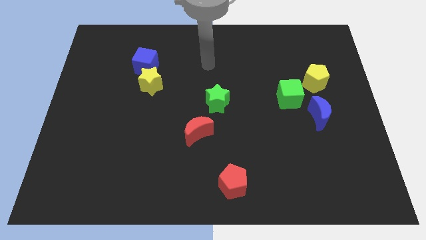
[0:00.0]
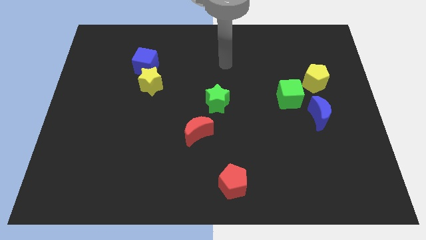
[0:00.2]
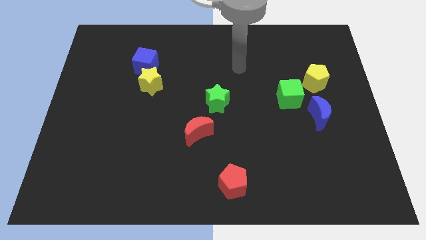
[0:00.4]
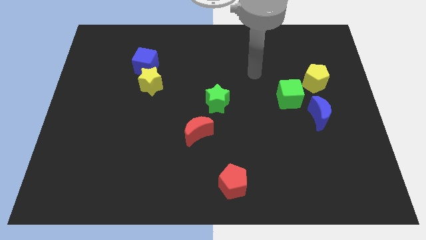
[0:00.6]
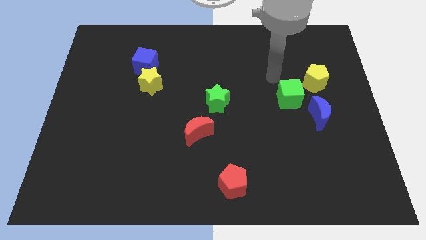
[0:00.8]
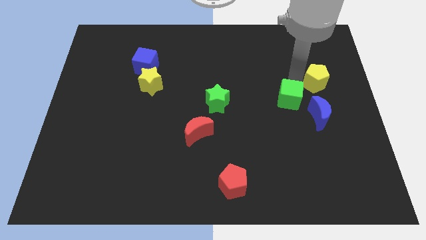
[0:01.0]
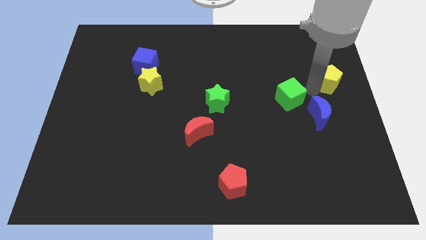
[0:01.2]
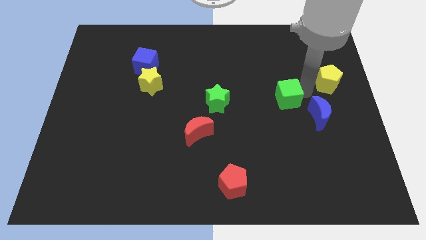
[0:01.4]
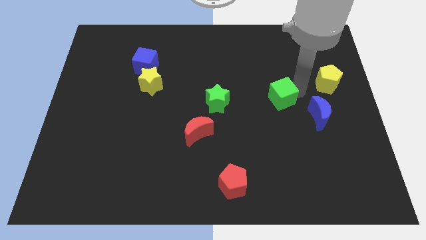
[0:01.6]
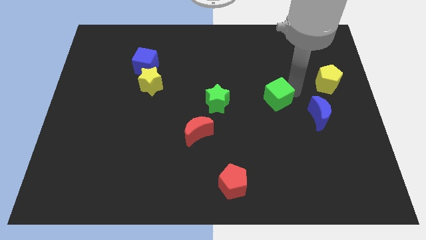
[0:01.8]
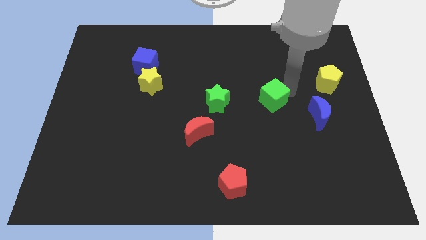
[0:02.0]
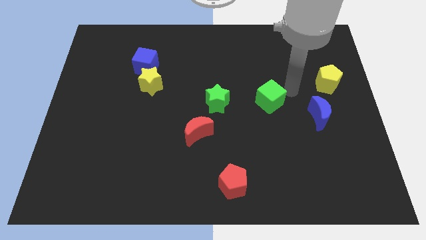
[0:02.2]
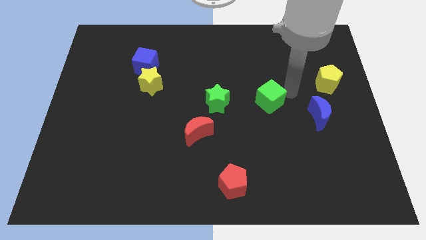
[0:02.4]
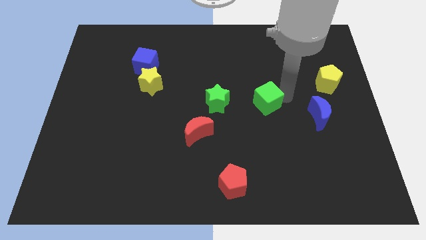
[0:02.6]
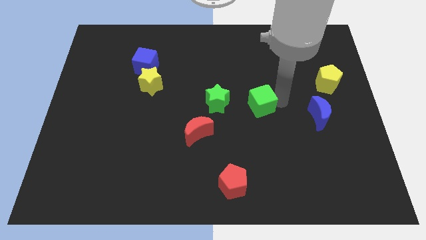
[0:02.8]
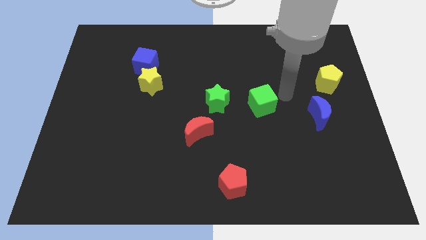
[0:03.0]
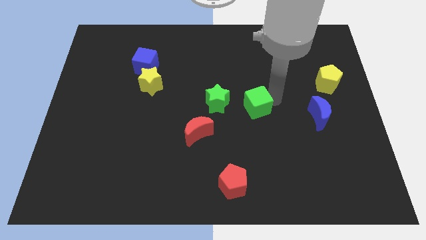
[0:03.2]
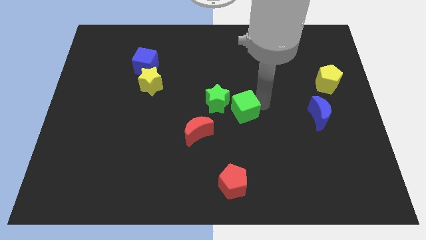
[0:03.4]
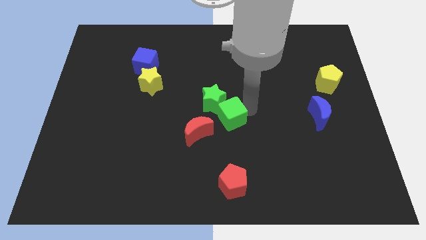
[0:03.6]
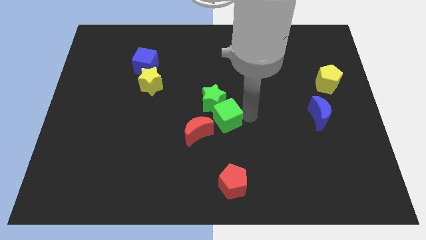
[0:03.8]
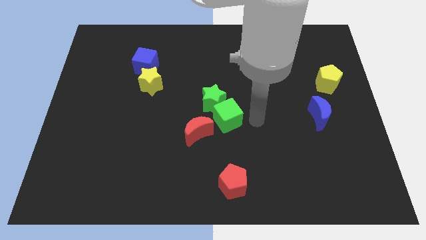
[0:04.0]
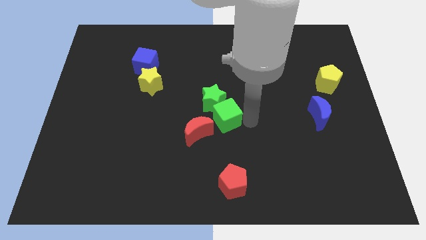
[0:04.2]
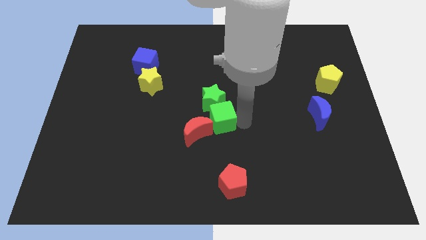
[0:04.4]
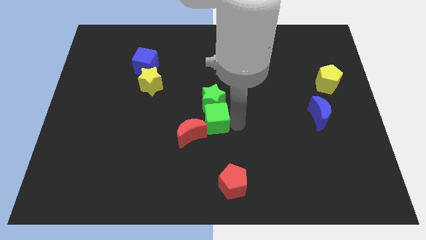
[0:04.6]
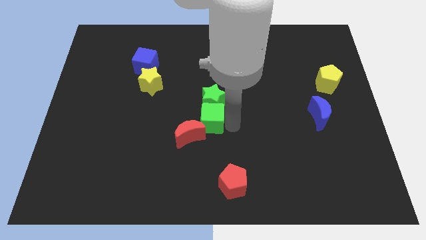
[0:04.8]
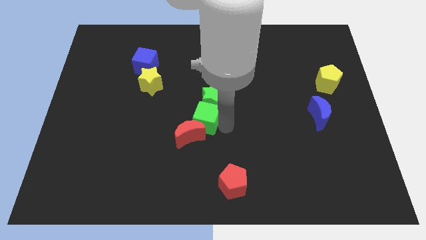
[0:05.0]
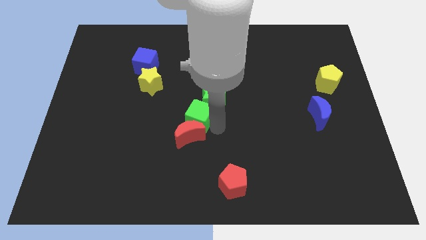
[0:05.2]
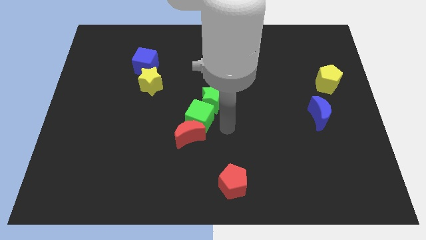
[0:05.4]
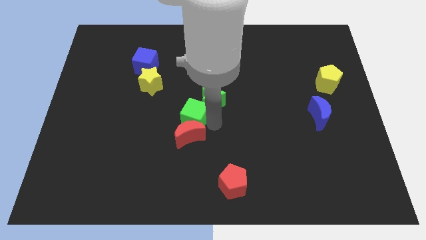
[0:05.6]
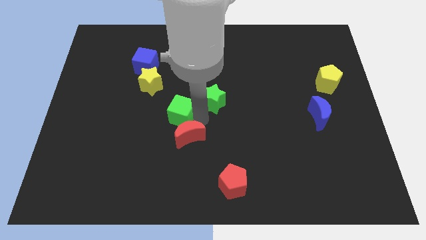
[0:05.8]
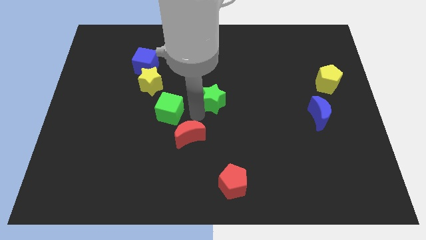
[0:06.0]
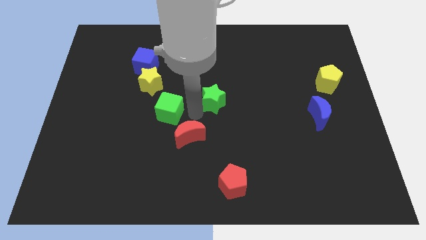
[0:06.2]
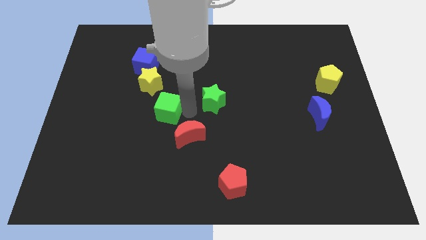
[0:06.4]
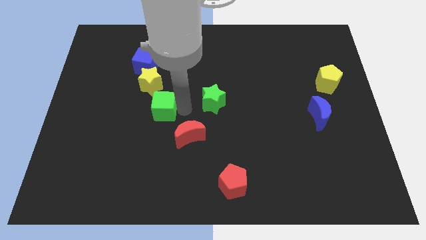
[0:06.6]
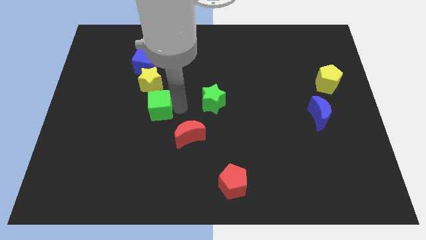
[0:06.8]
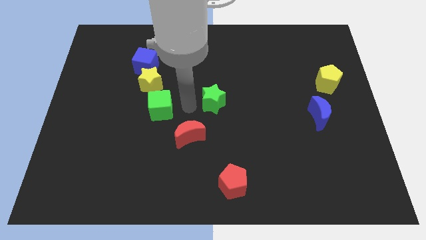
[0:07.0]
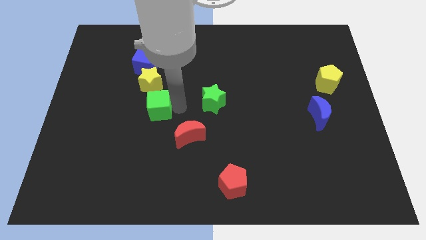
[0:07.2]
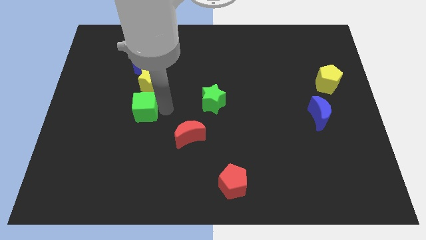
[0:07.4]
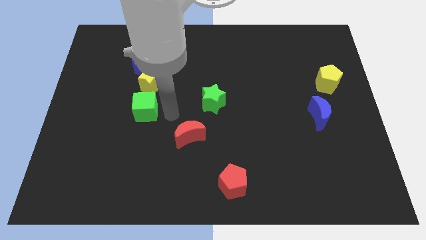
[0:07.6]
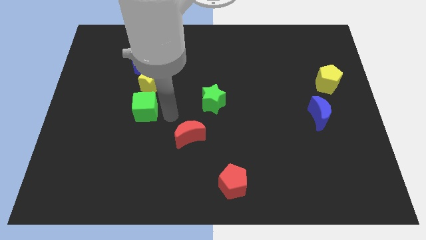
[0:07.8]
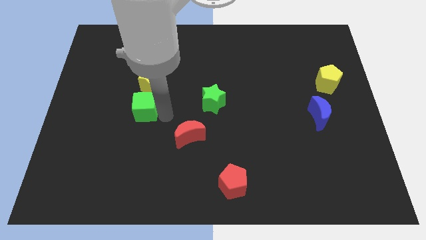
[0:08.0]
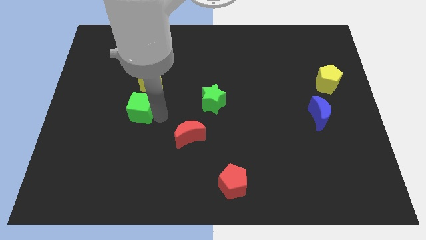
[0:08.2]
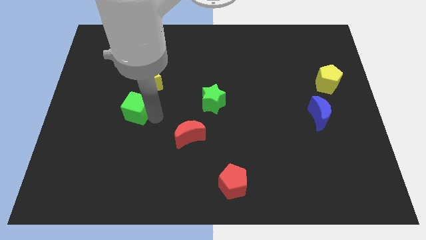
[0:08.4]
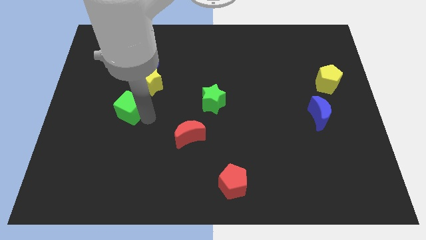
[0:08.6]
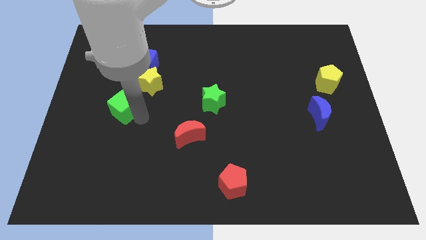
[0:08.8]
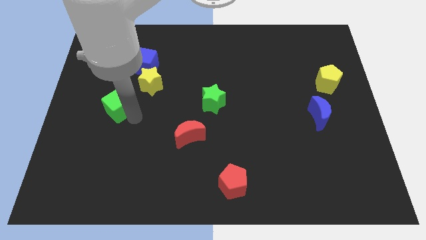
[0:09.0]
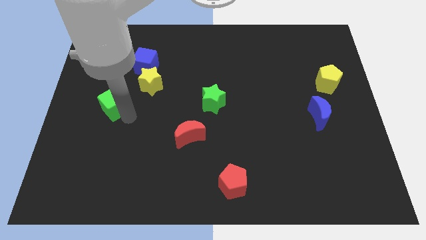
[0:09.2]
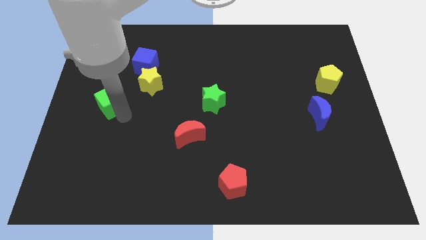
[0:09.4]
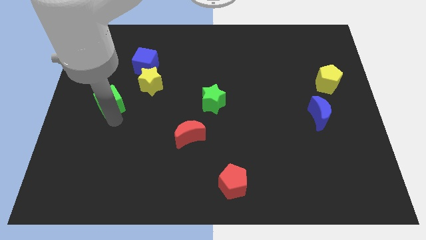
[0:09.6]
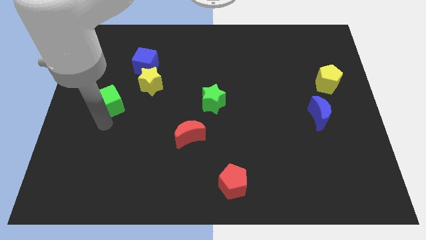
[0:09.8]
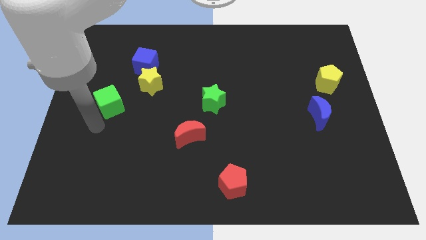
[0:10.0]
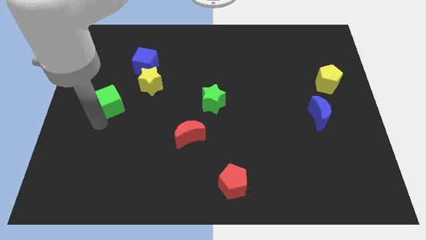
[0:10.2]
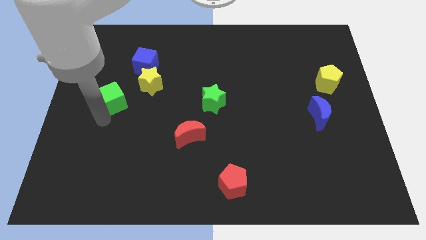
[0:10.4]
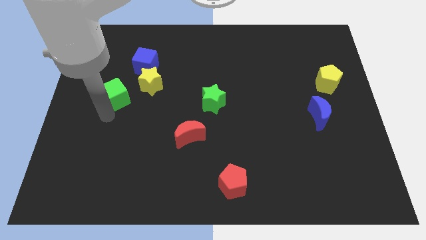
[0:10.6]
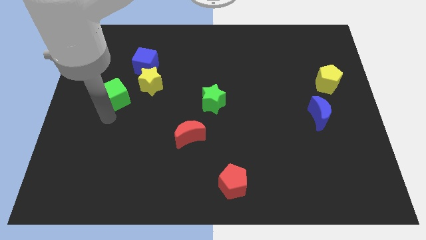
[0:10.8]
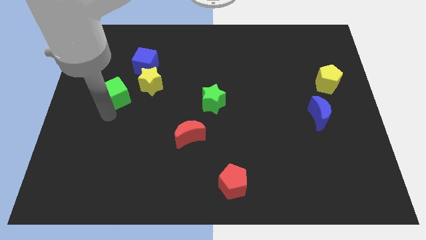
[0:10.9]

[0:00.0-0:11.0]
slide the green cube to the bottom left side of the blue cube

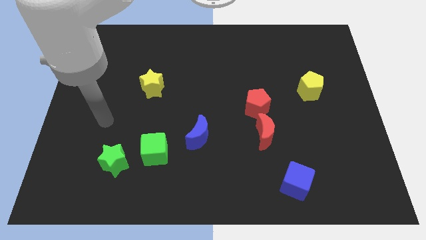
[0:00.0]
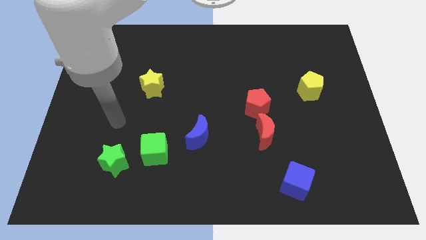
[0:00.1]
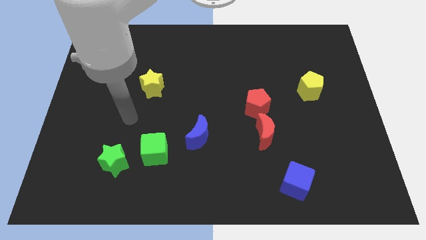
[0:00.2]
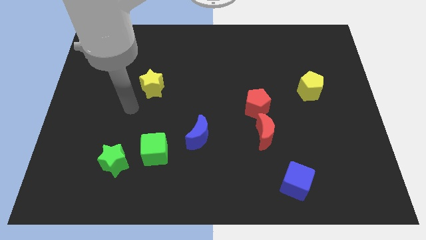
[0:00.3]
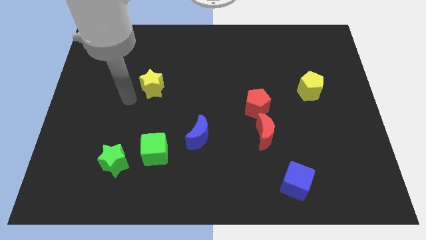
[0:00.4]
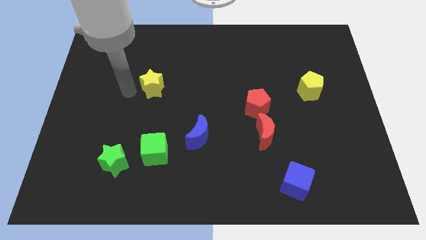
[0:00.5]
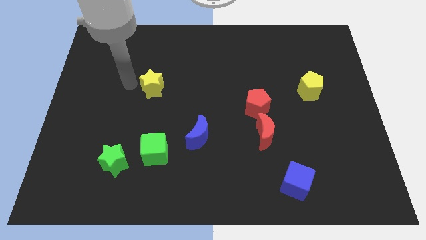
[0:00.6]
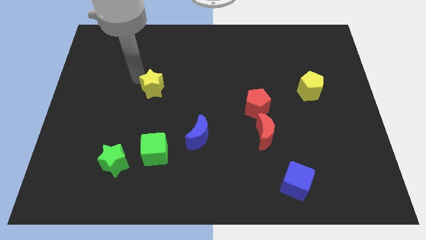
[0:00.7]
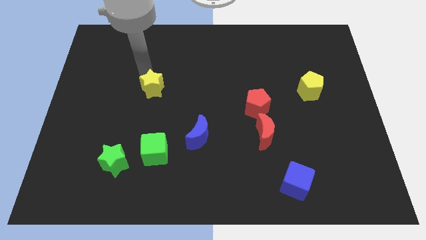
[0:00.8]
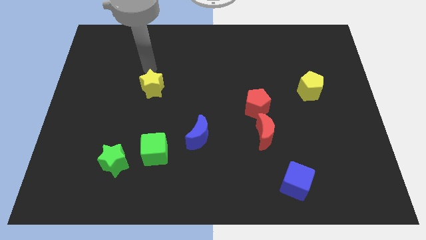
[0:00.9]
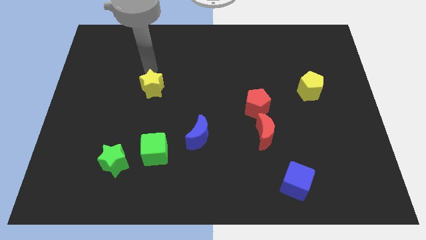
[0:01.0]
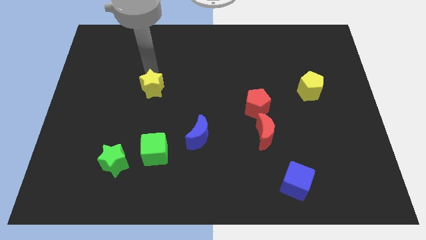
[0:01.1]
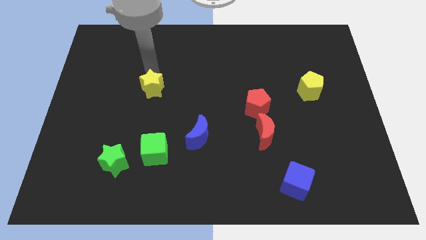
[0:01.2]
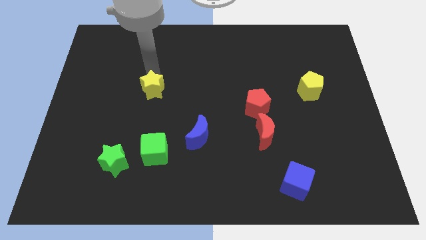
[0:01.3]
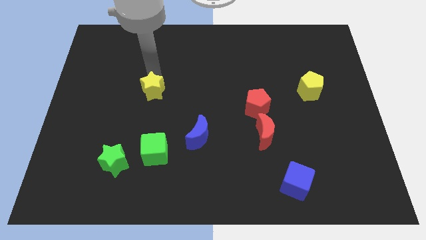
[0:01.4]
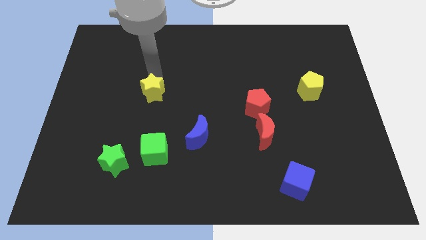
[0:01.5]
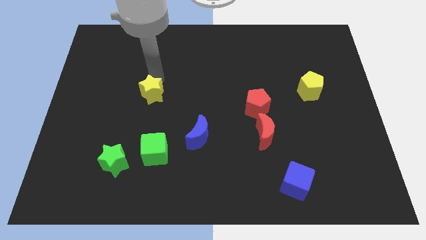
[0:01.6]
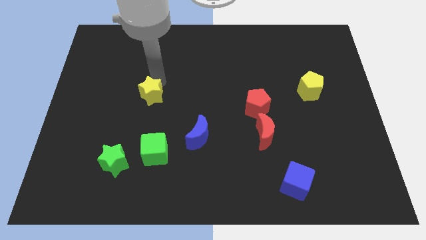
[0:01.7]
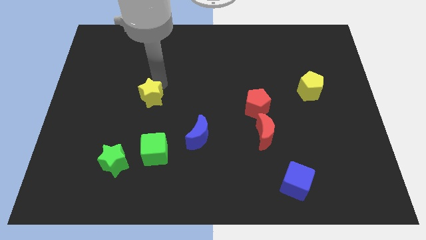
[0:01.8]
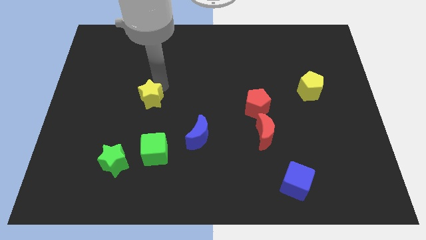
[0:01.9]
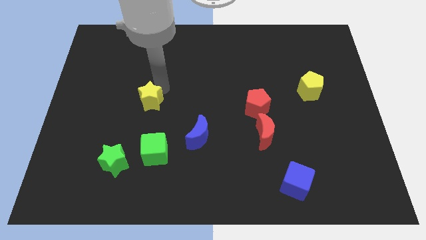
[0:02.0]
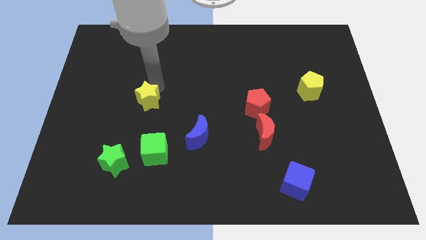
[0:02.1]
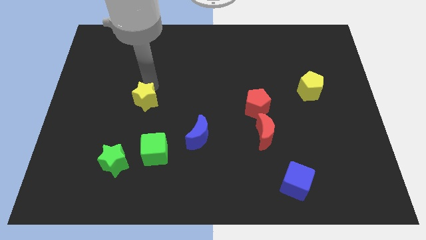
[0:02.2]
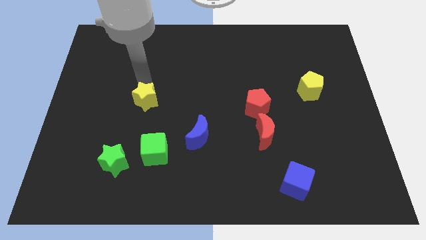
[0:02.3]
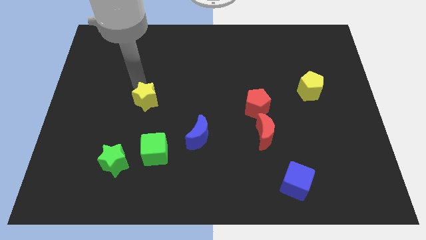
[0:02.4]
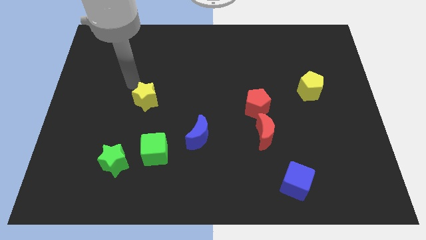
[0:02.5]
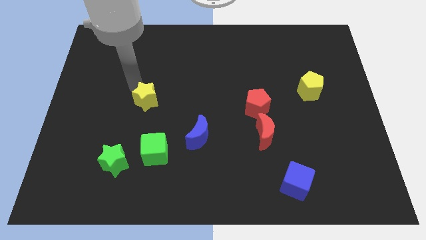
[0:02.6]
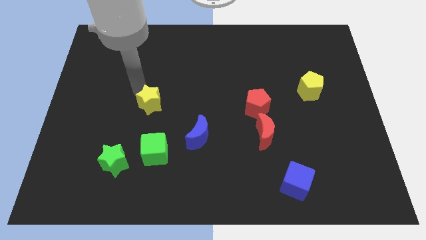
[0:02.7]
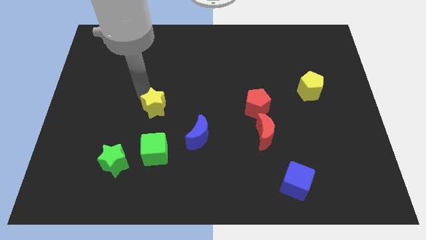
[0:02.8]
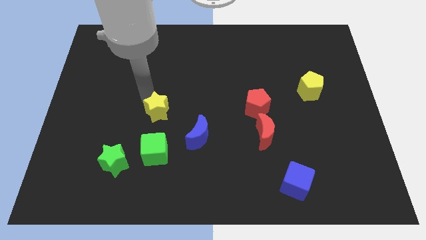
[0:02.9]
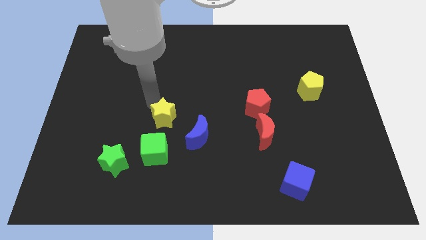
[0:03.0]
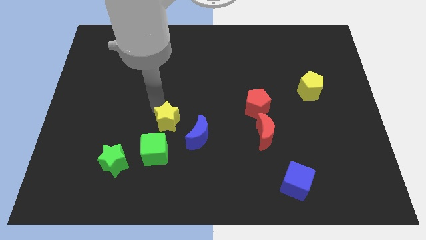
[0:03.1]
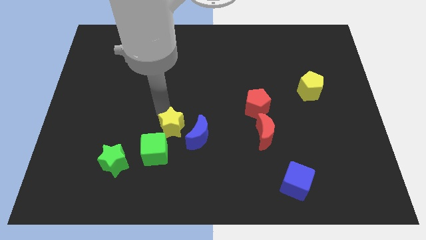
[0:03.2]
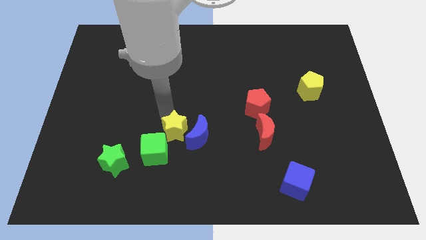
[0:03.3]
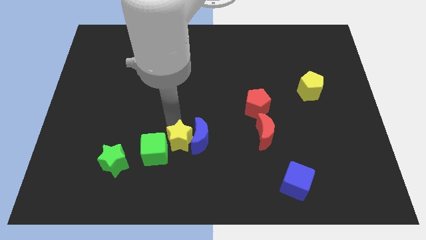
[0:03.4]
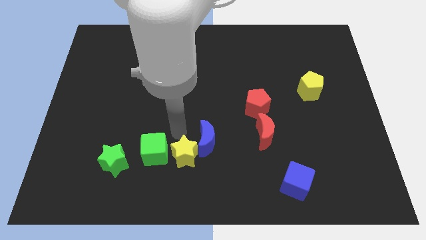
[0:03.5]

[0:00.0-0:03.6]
slide the yellow star below the blue moon
